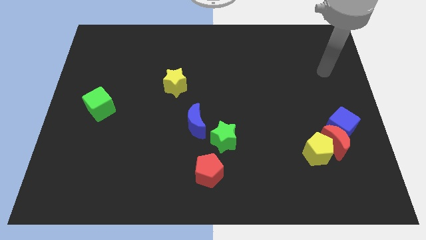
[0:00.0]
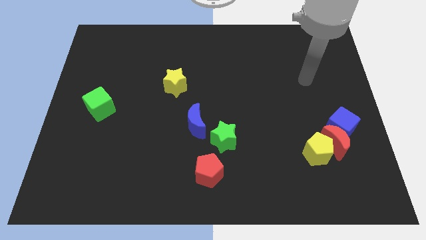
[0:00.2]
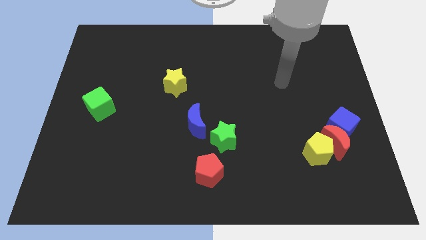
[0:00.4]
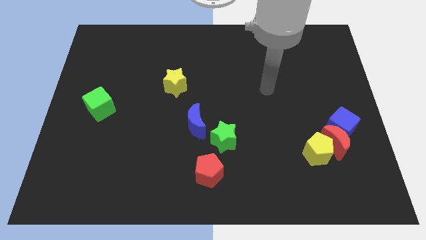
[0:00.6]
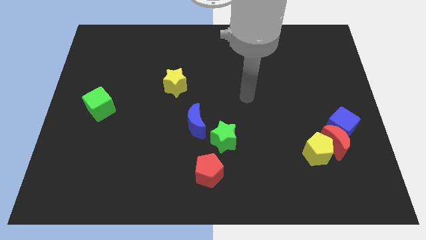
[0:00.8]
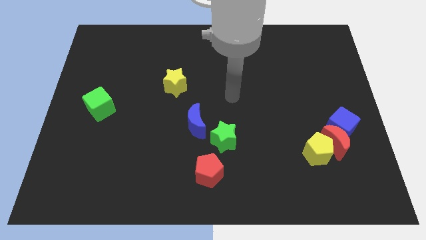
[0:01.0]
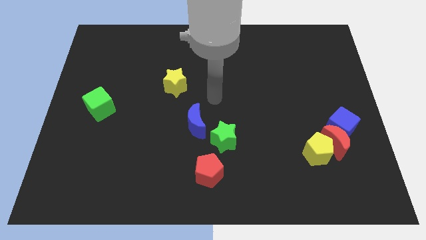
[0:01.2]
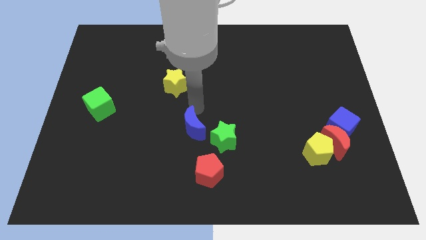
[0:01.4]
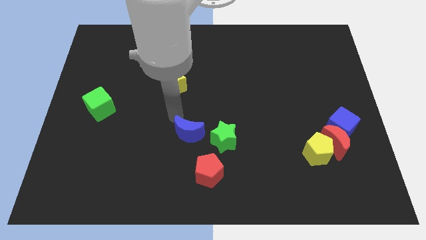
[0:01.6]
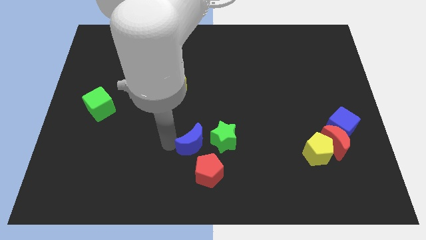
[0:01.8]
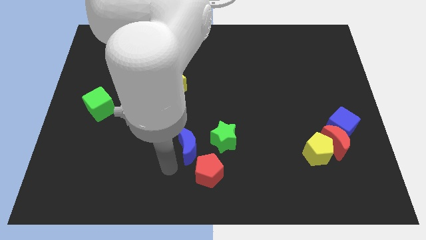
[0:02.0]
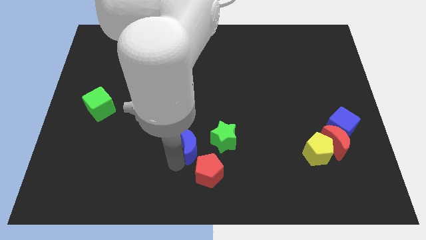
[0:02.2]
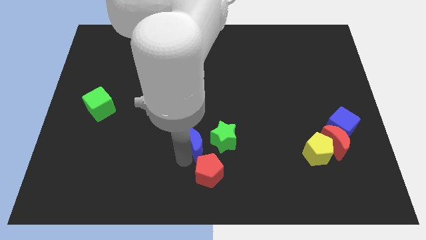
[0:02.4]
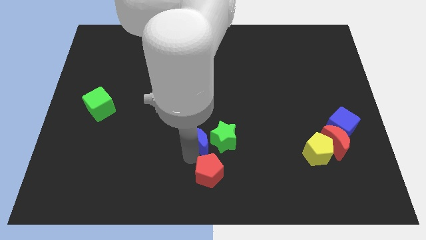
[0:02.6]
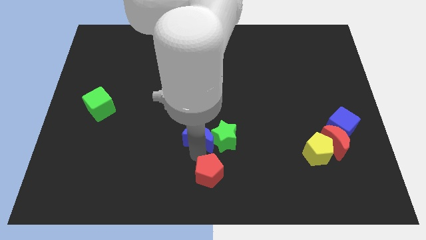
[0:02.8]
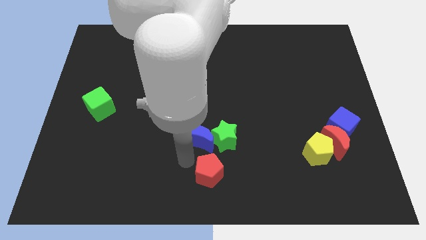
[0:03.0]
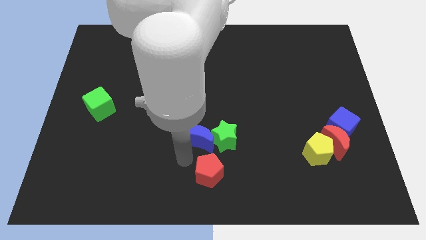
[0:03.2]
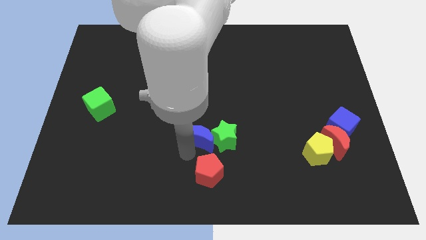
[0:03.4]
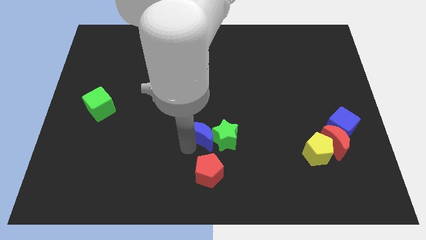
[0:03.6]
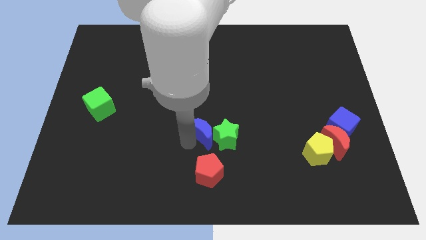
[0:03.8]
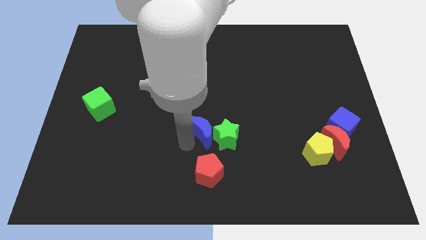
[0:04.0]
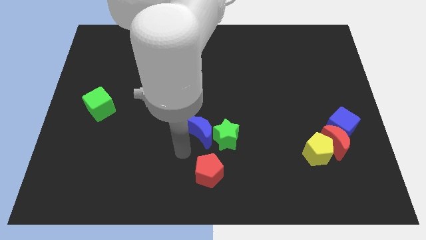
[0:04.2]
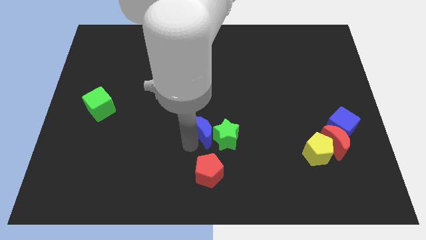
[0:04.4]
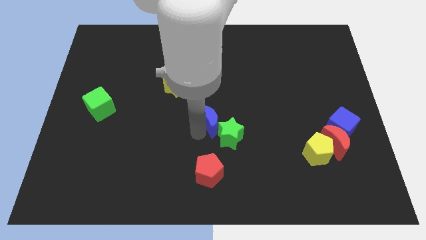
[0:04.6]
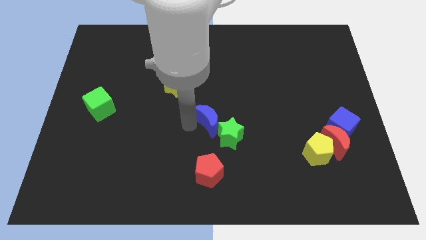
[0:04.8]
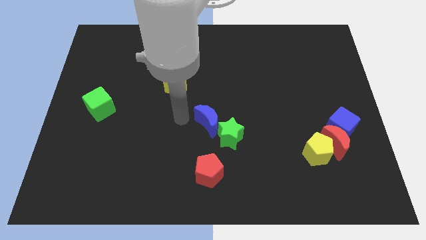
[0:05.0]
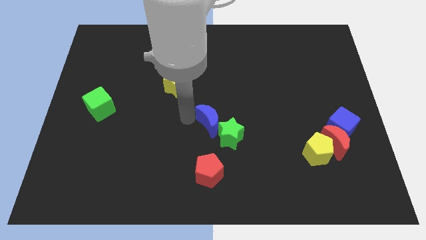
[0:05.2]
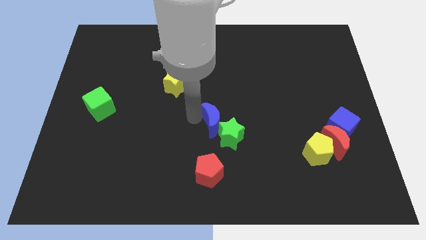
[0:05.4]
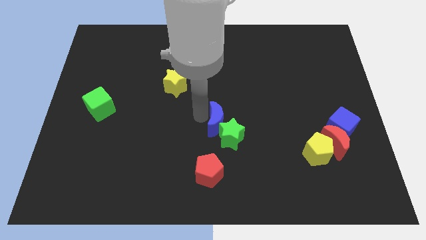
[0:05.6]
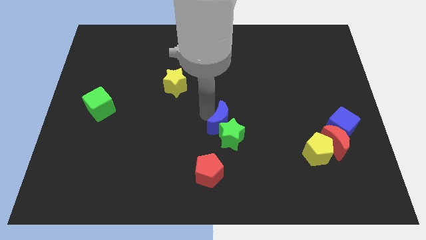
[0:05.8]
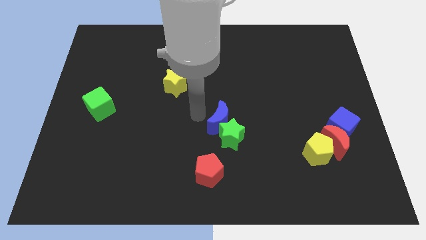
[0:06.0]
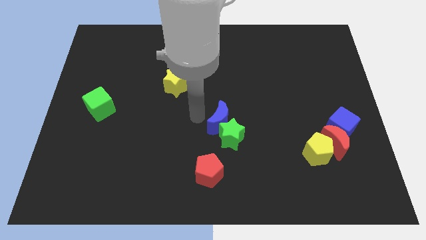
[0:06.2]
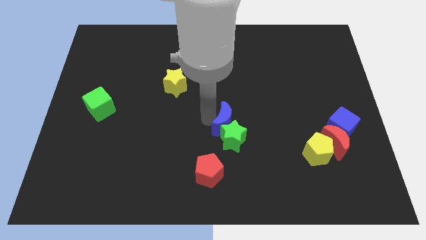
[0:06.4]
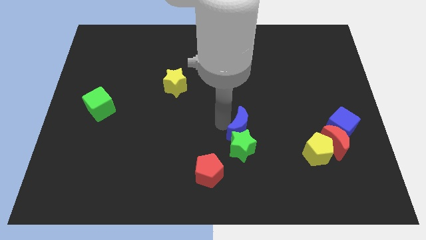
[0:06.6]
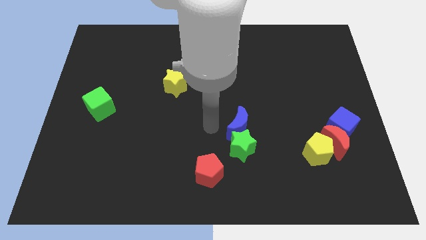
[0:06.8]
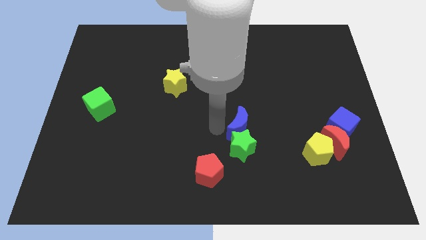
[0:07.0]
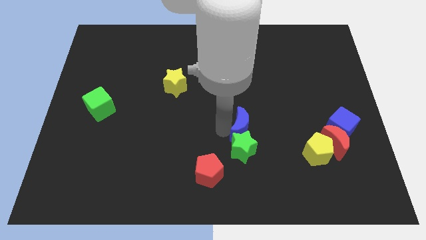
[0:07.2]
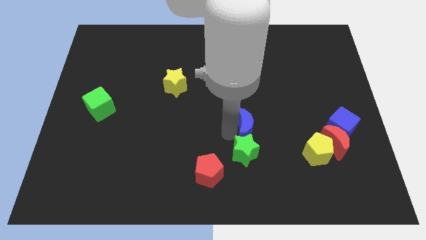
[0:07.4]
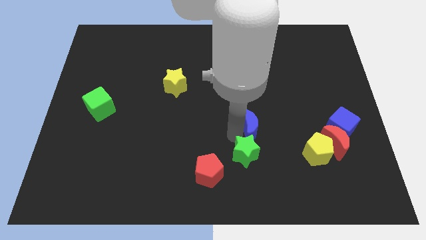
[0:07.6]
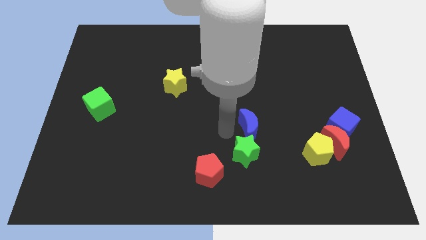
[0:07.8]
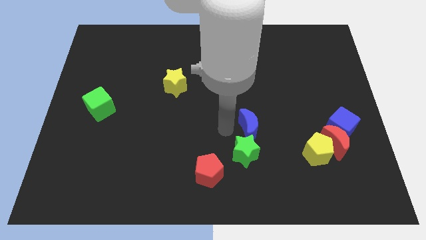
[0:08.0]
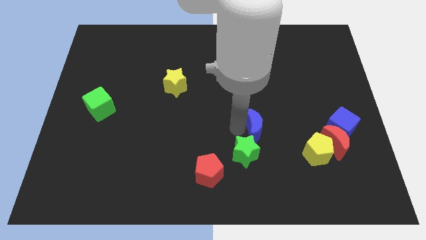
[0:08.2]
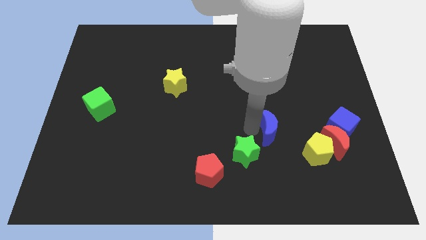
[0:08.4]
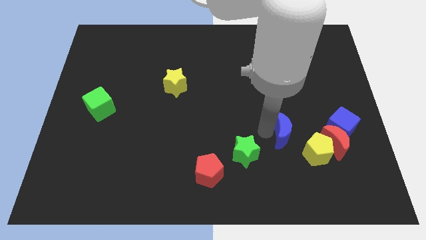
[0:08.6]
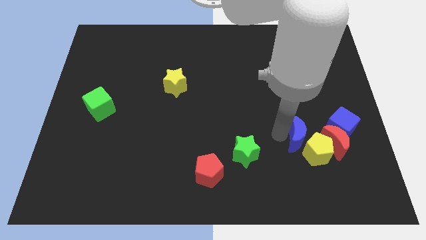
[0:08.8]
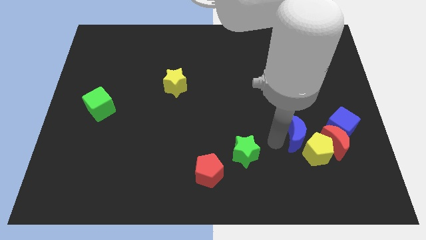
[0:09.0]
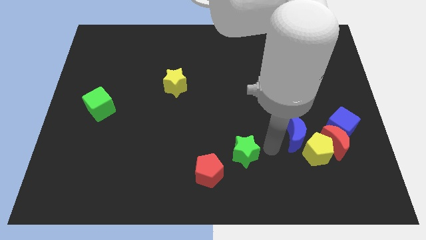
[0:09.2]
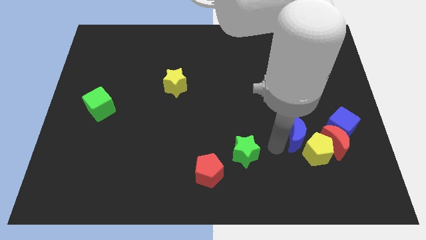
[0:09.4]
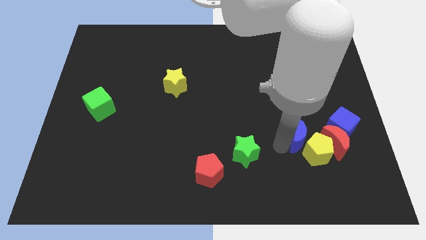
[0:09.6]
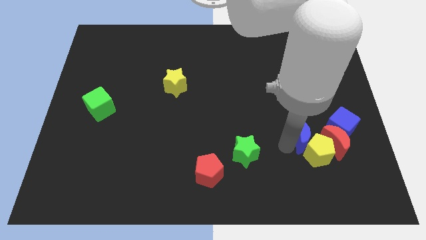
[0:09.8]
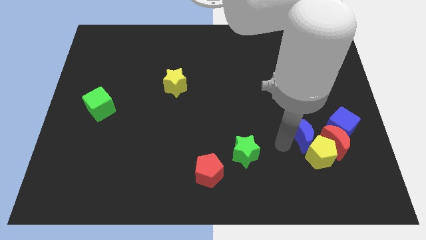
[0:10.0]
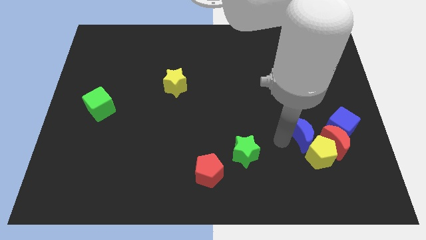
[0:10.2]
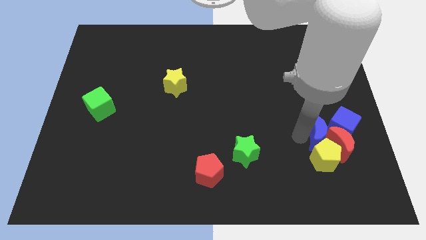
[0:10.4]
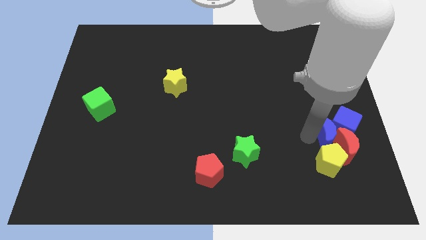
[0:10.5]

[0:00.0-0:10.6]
slide the blue moon to the blue cube

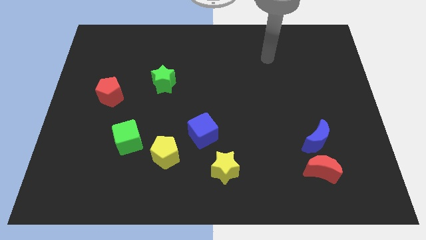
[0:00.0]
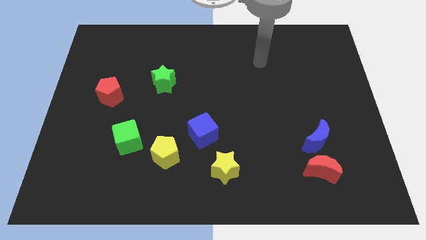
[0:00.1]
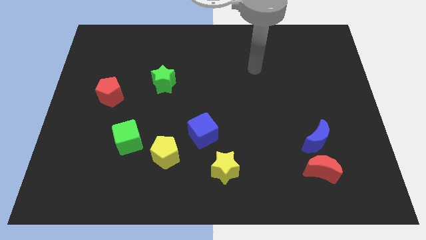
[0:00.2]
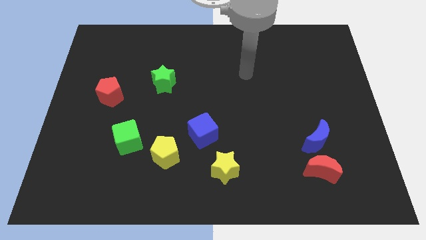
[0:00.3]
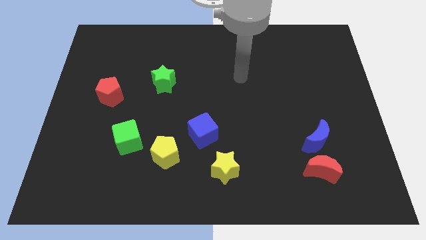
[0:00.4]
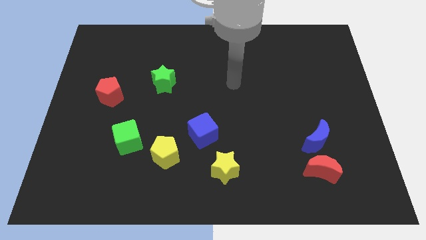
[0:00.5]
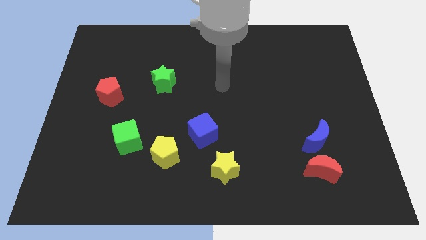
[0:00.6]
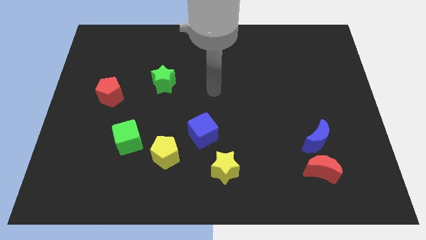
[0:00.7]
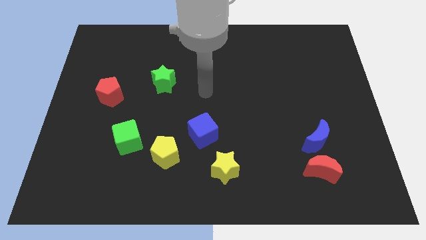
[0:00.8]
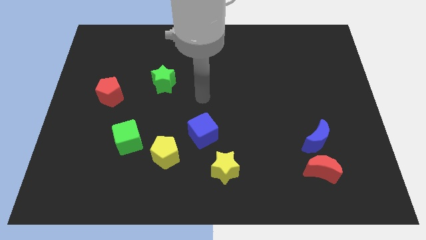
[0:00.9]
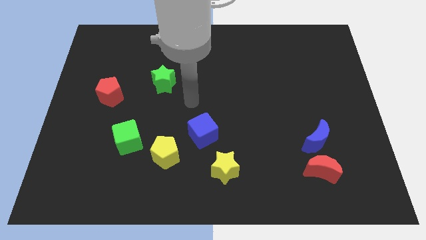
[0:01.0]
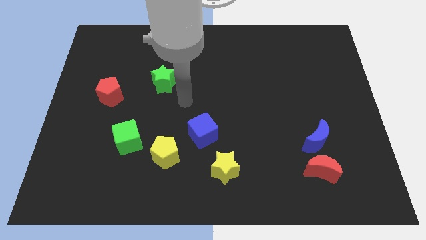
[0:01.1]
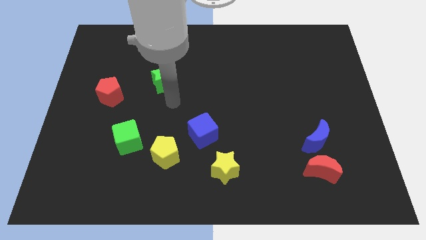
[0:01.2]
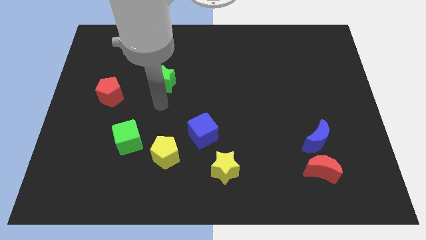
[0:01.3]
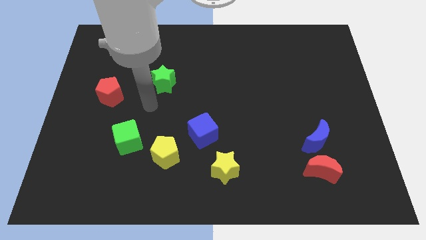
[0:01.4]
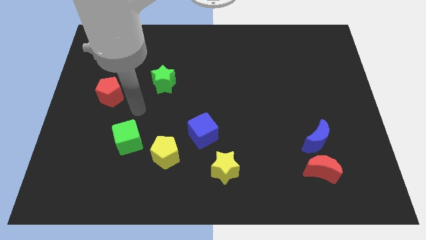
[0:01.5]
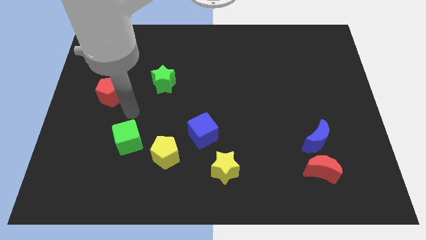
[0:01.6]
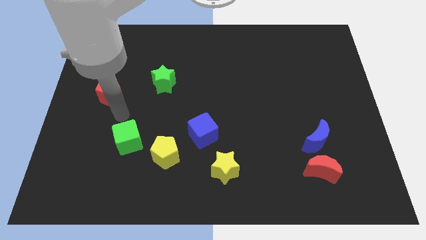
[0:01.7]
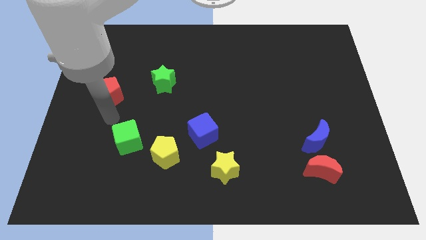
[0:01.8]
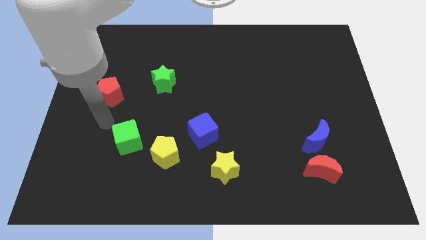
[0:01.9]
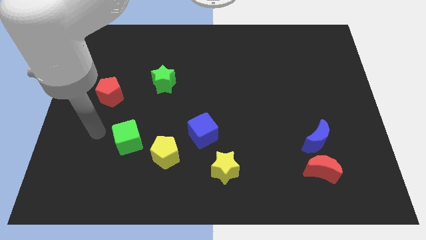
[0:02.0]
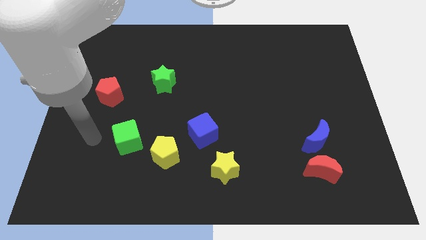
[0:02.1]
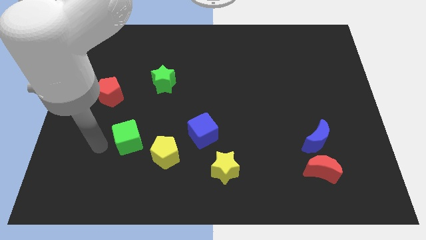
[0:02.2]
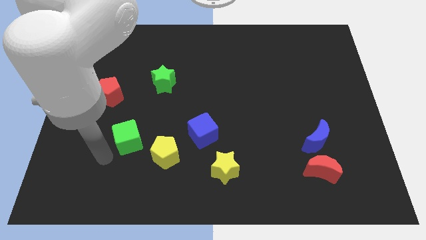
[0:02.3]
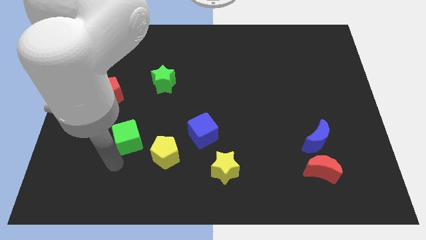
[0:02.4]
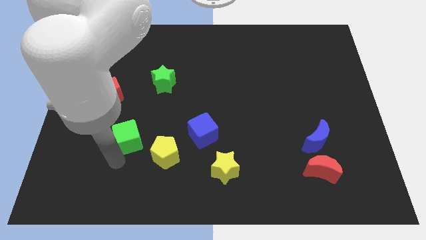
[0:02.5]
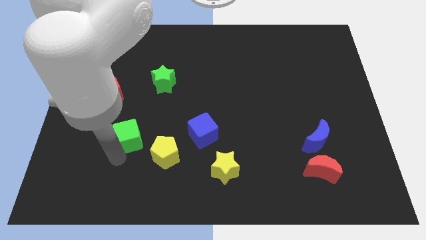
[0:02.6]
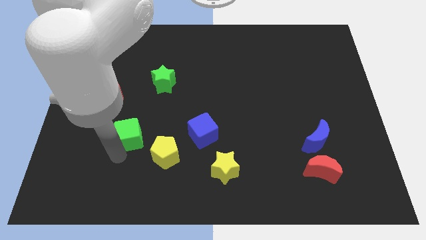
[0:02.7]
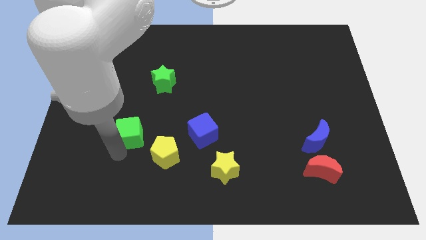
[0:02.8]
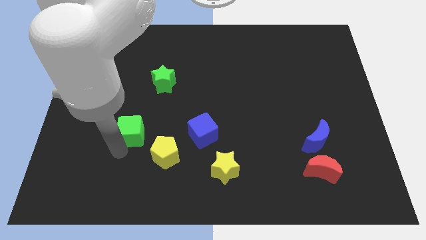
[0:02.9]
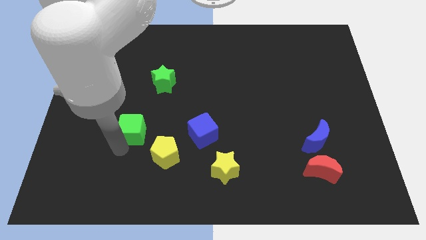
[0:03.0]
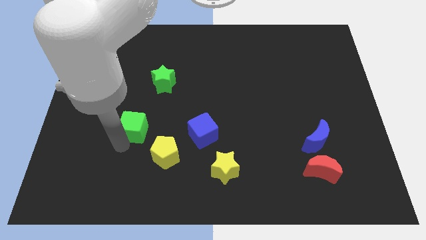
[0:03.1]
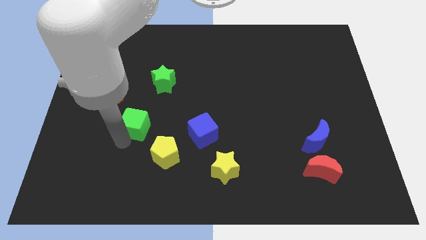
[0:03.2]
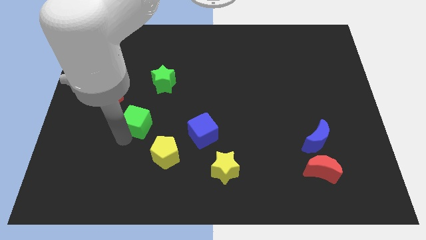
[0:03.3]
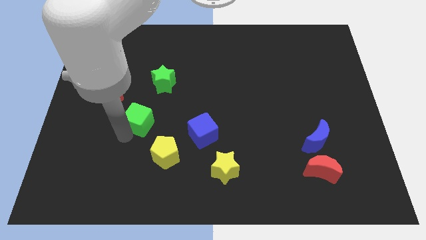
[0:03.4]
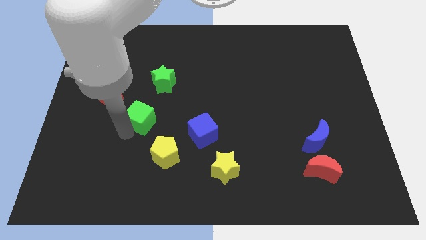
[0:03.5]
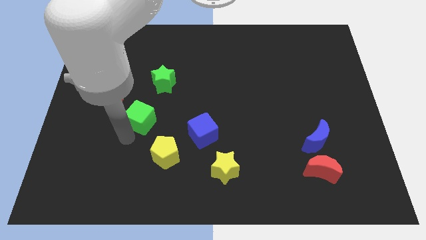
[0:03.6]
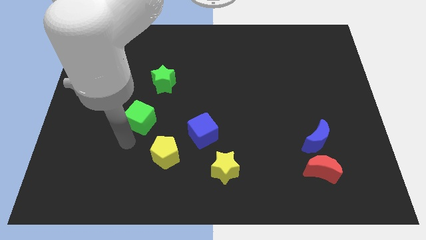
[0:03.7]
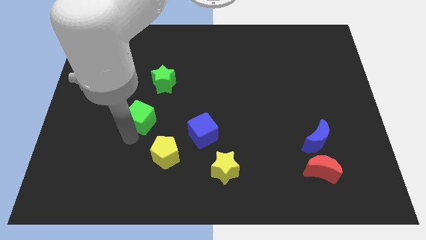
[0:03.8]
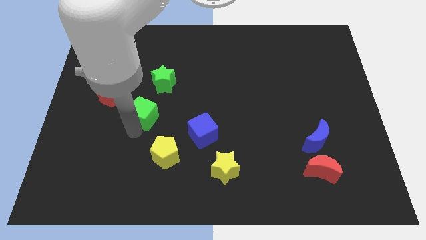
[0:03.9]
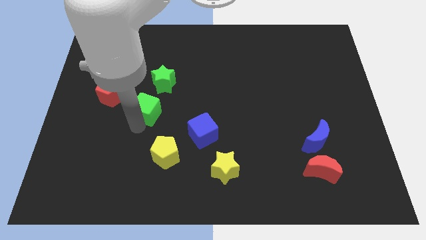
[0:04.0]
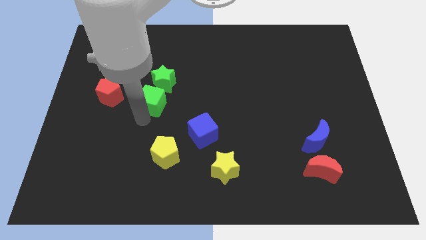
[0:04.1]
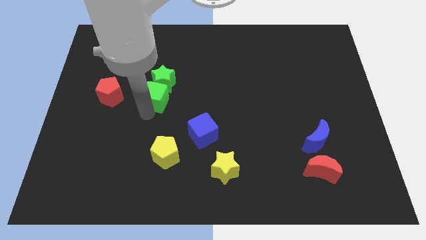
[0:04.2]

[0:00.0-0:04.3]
put the green cube close to the green star
